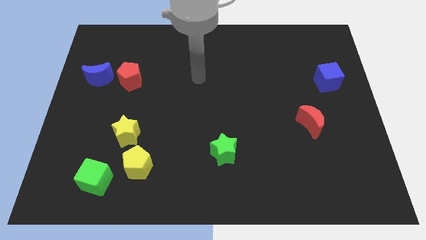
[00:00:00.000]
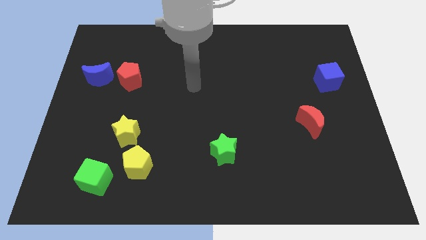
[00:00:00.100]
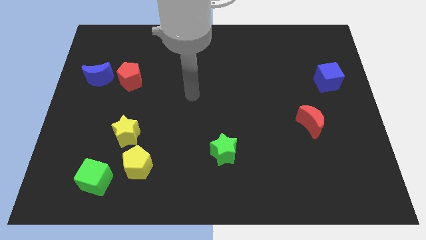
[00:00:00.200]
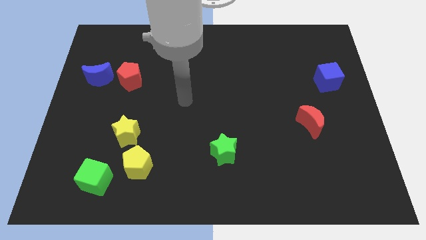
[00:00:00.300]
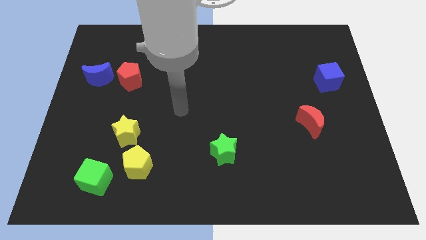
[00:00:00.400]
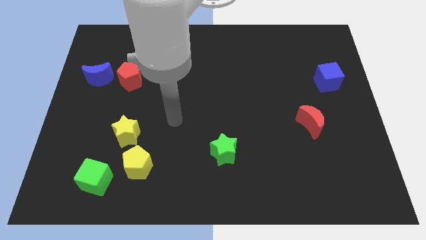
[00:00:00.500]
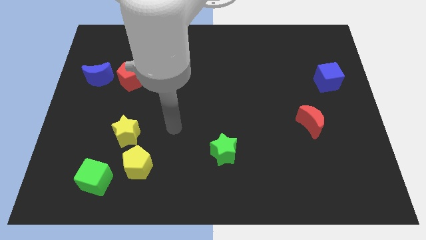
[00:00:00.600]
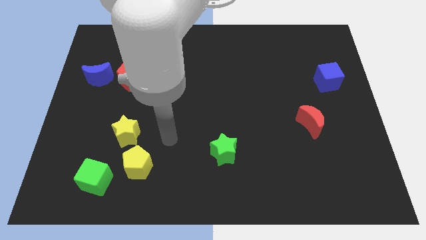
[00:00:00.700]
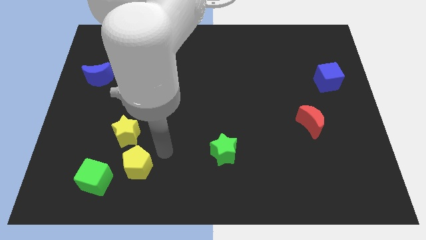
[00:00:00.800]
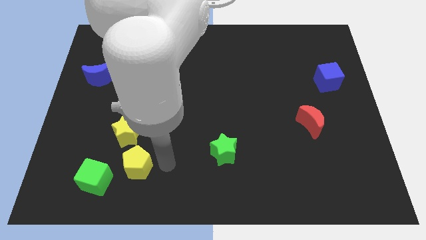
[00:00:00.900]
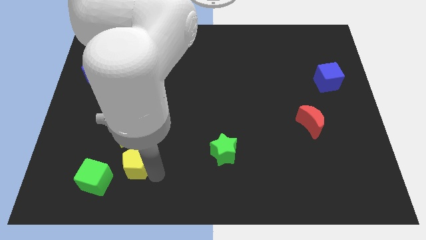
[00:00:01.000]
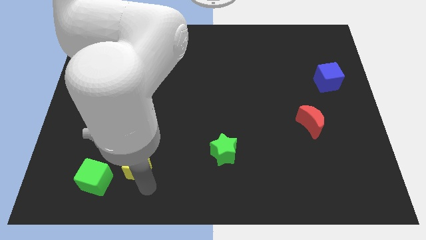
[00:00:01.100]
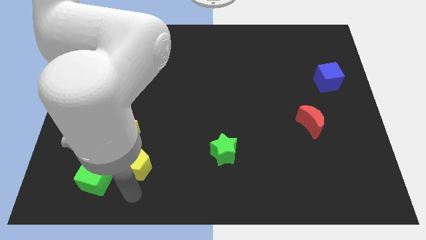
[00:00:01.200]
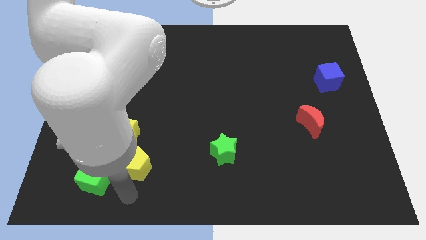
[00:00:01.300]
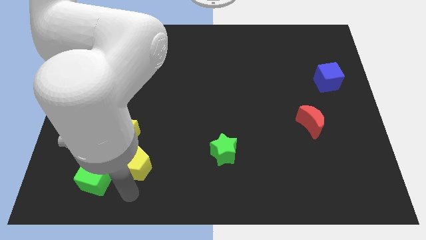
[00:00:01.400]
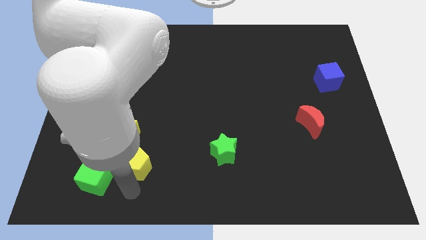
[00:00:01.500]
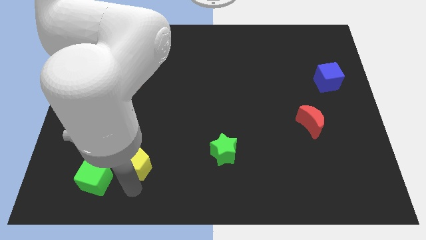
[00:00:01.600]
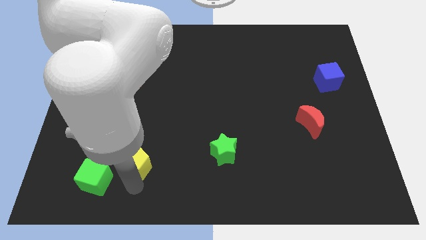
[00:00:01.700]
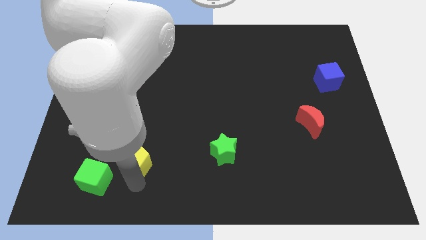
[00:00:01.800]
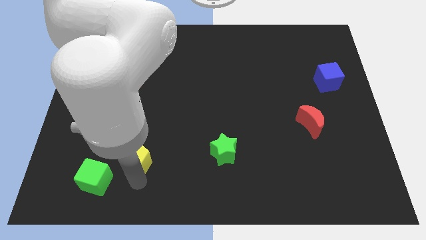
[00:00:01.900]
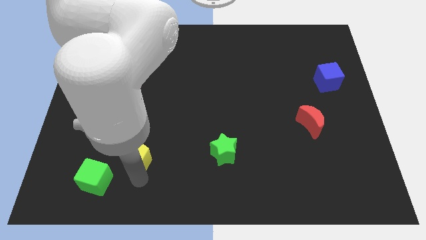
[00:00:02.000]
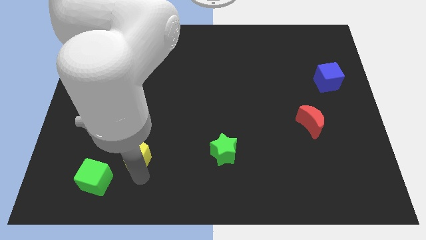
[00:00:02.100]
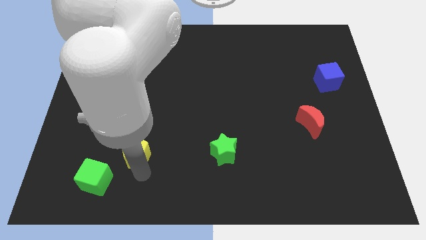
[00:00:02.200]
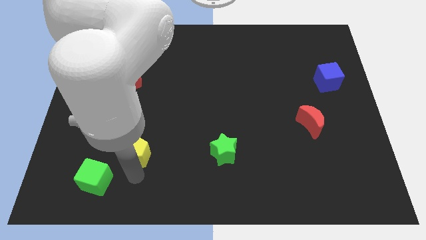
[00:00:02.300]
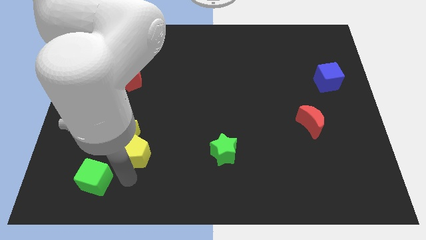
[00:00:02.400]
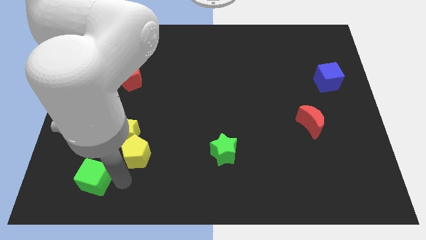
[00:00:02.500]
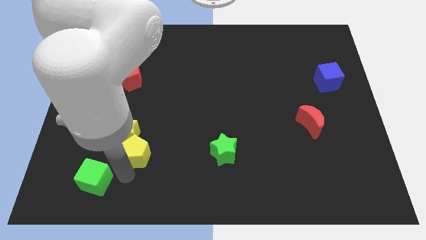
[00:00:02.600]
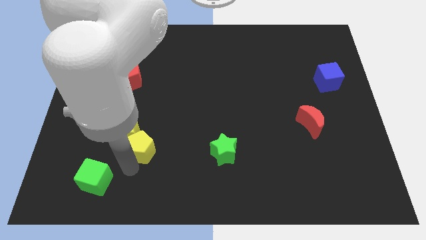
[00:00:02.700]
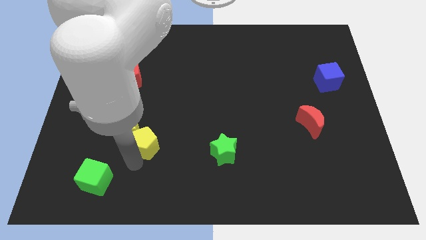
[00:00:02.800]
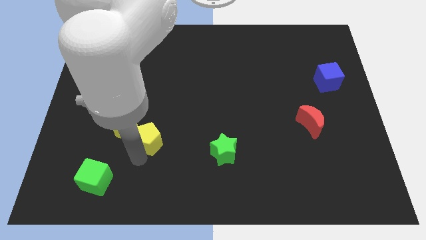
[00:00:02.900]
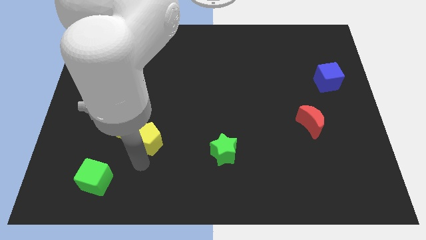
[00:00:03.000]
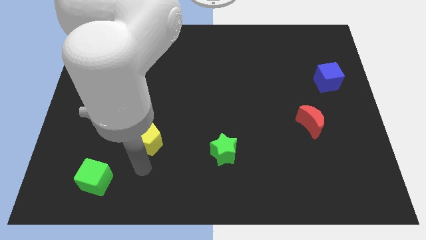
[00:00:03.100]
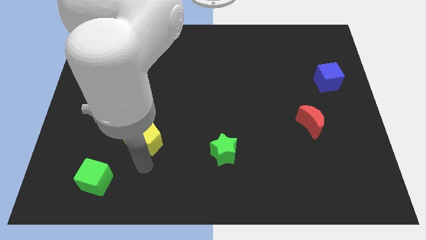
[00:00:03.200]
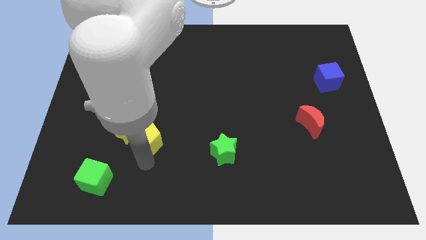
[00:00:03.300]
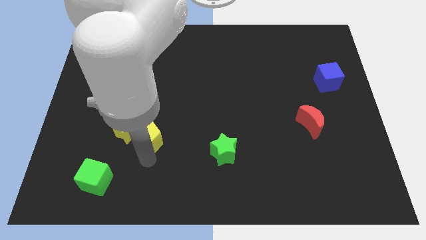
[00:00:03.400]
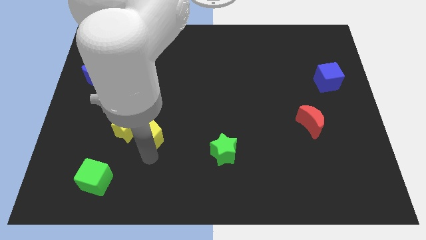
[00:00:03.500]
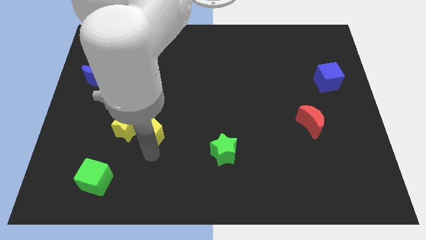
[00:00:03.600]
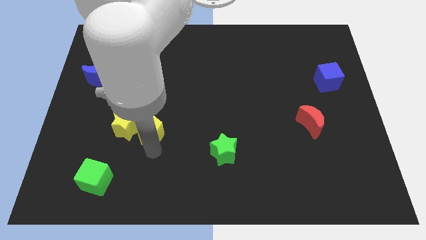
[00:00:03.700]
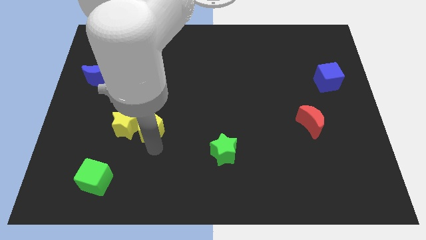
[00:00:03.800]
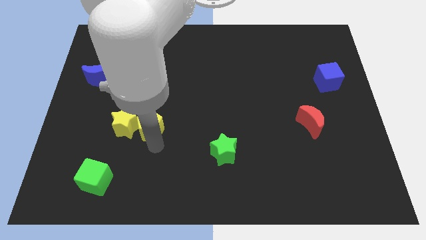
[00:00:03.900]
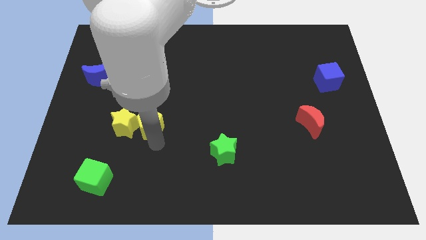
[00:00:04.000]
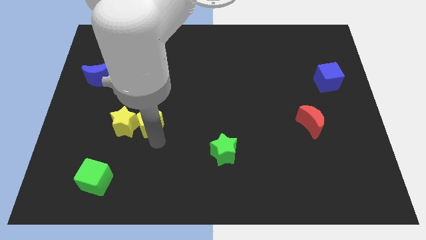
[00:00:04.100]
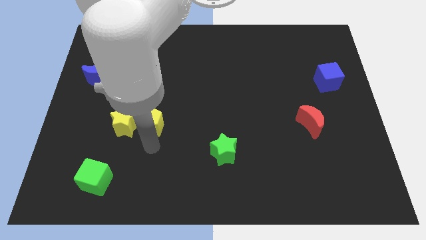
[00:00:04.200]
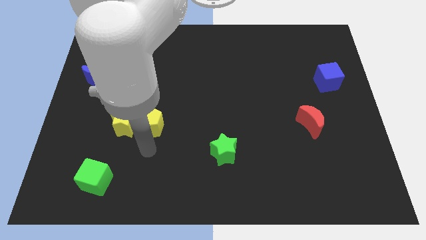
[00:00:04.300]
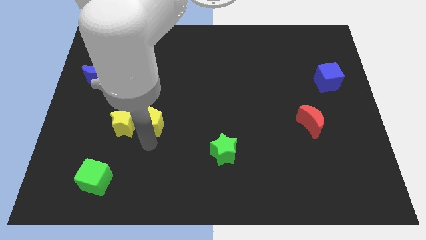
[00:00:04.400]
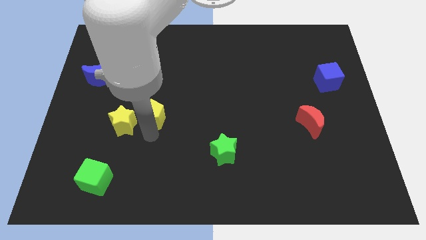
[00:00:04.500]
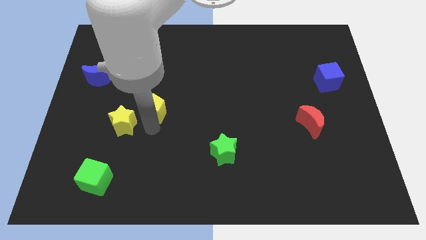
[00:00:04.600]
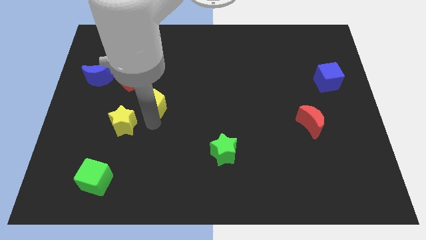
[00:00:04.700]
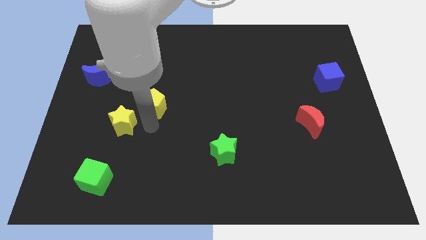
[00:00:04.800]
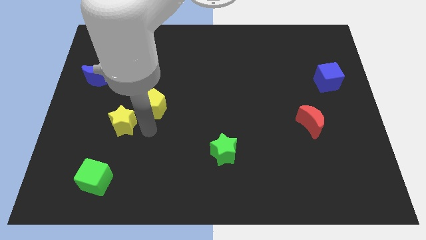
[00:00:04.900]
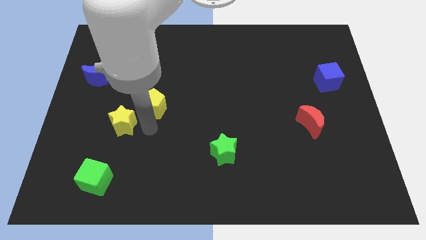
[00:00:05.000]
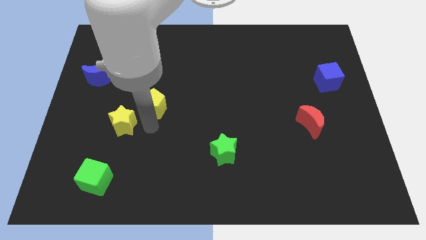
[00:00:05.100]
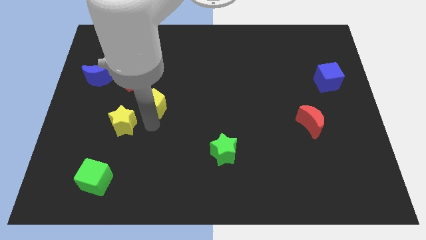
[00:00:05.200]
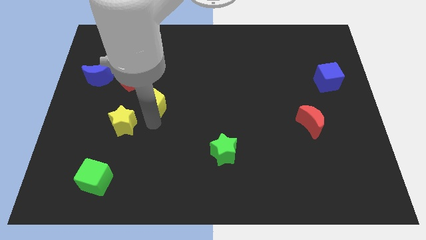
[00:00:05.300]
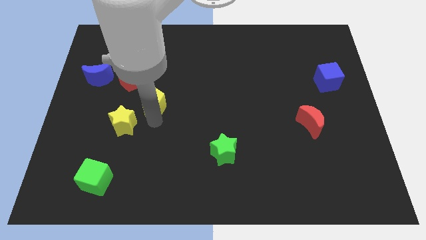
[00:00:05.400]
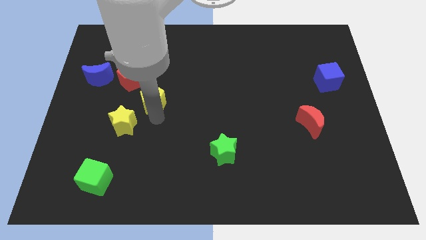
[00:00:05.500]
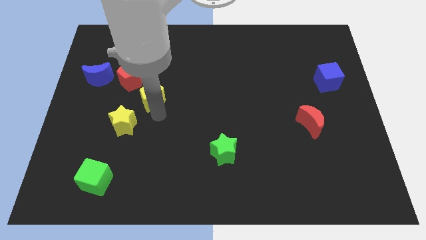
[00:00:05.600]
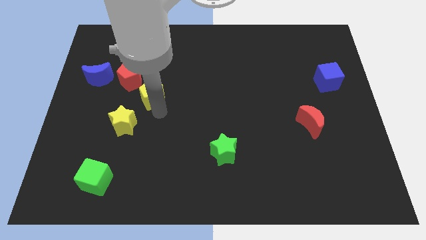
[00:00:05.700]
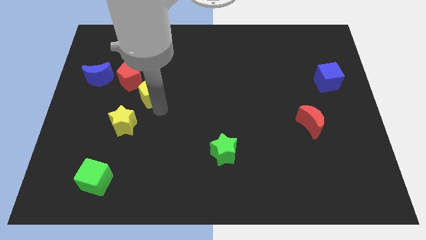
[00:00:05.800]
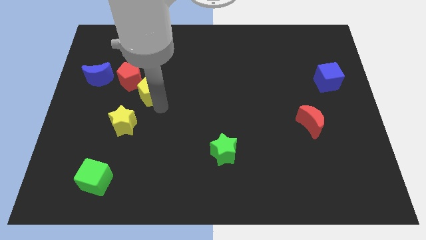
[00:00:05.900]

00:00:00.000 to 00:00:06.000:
move the yellow pentagon up

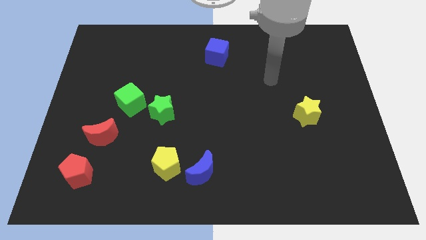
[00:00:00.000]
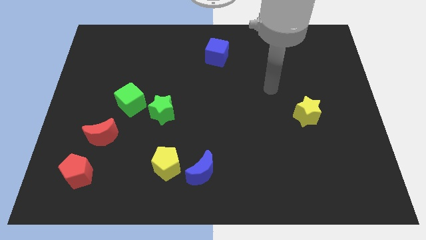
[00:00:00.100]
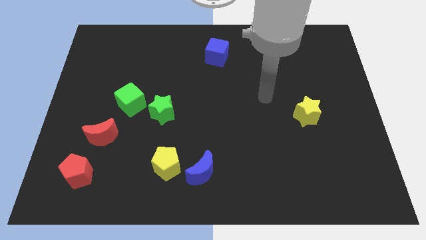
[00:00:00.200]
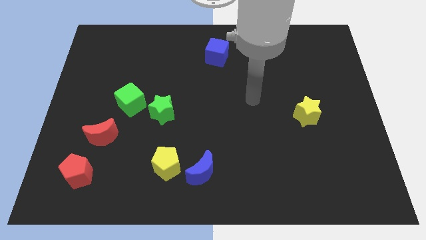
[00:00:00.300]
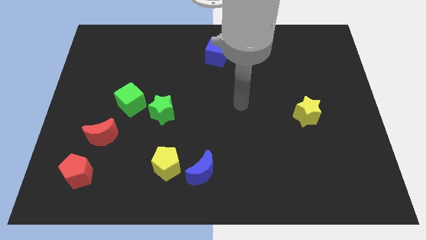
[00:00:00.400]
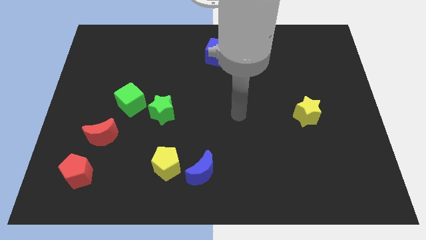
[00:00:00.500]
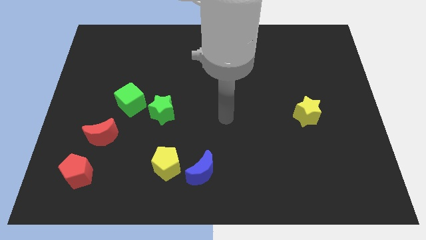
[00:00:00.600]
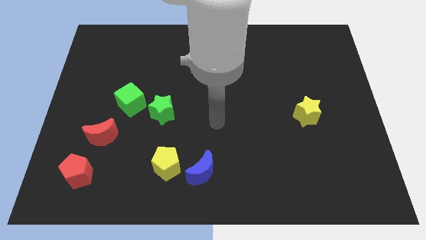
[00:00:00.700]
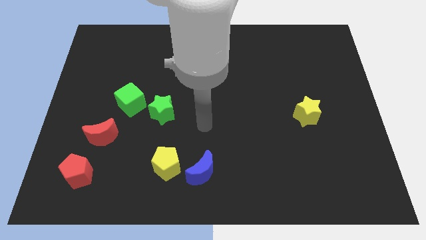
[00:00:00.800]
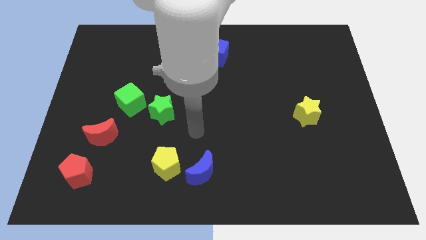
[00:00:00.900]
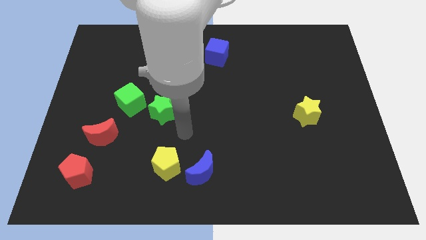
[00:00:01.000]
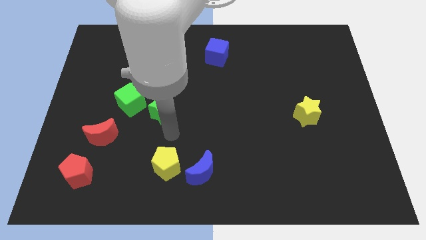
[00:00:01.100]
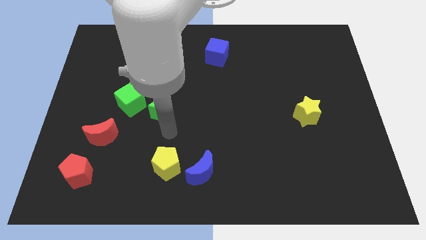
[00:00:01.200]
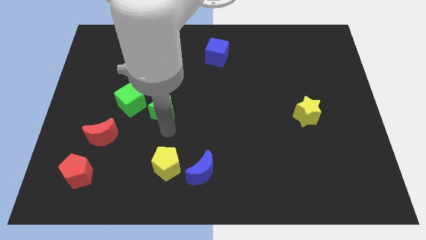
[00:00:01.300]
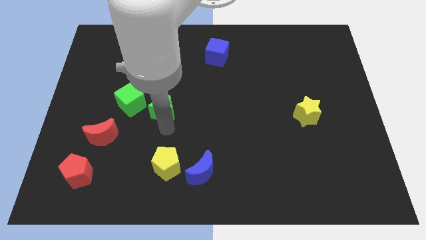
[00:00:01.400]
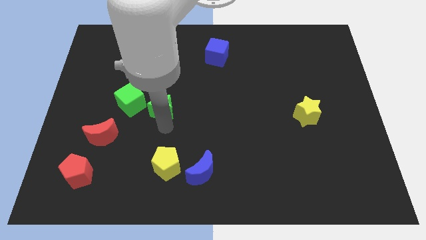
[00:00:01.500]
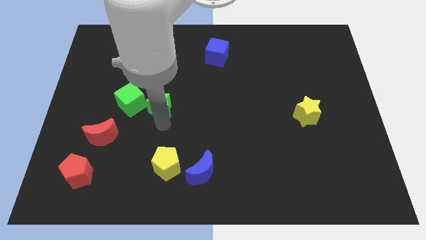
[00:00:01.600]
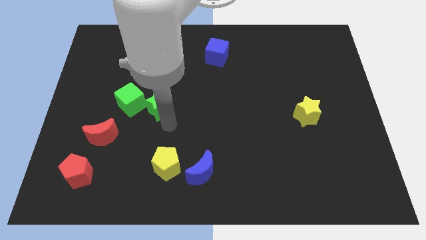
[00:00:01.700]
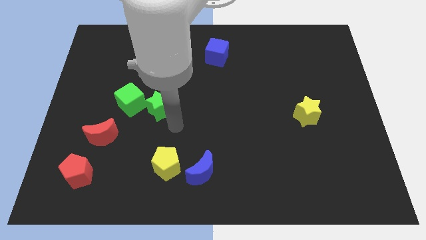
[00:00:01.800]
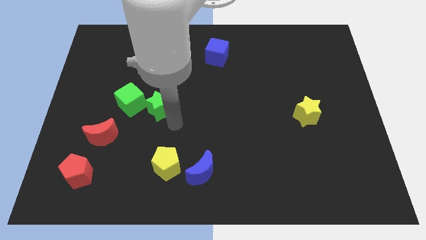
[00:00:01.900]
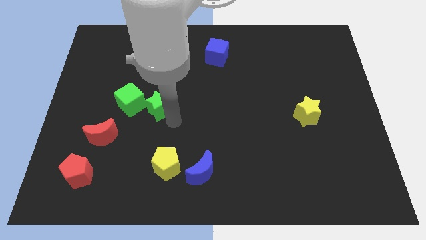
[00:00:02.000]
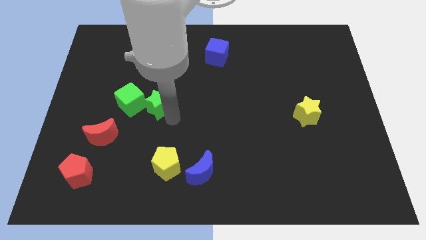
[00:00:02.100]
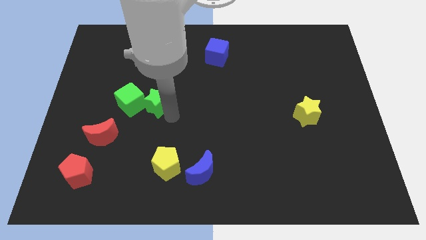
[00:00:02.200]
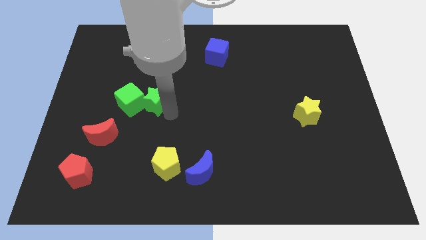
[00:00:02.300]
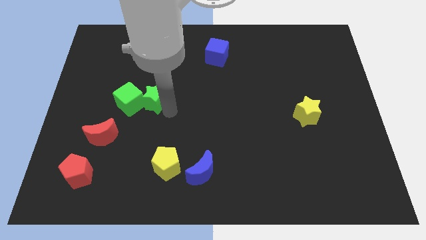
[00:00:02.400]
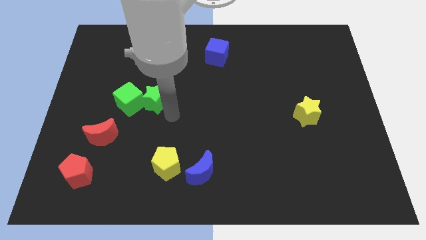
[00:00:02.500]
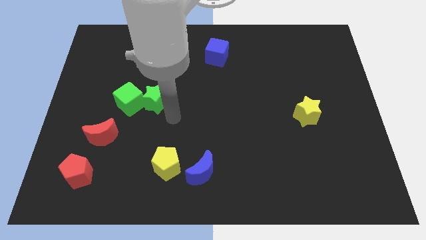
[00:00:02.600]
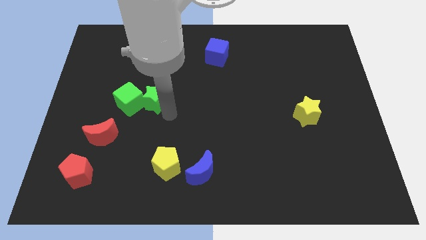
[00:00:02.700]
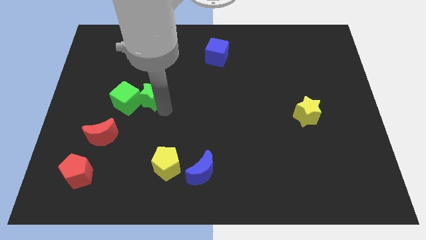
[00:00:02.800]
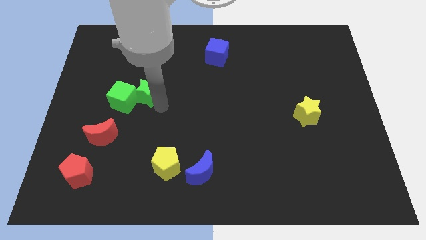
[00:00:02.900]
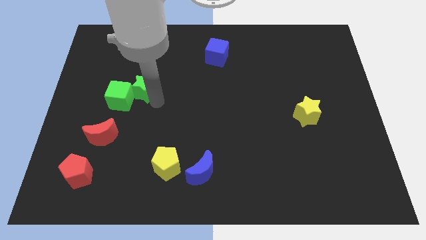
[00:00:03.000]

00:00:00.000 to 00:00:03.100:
slide the green star slightly up and then to the left
